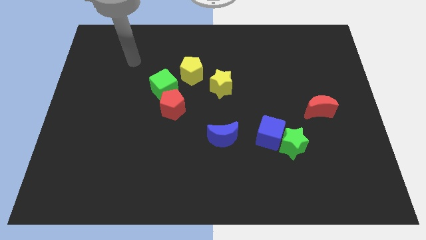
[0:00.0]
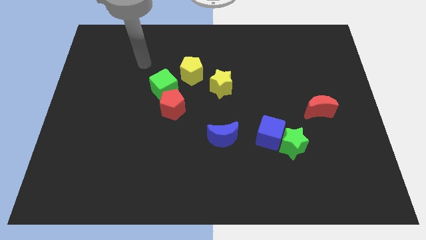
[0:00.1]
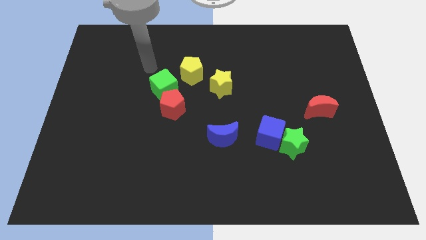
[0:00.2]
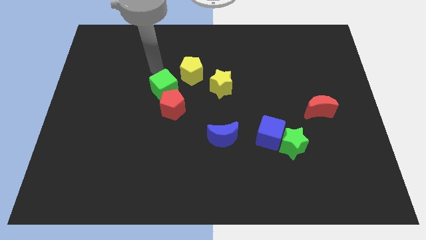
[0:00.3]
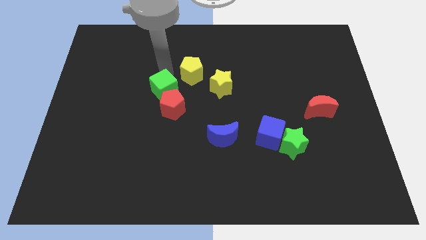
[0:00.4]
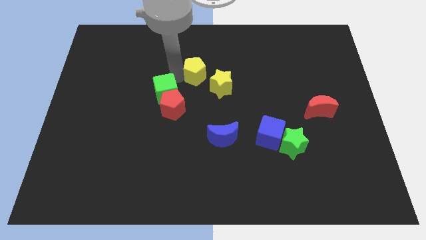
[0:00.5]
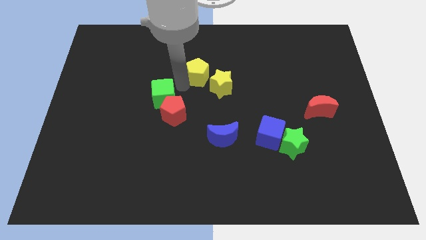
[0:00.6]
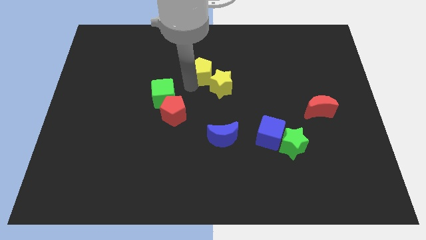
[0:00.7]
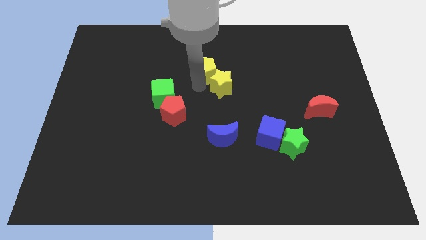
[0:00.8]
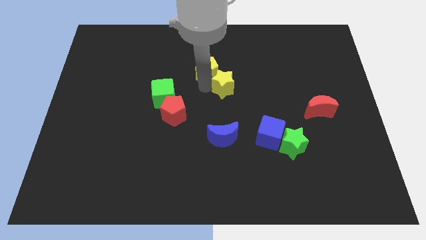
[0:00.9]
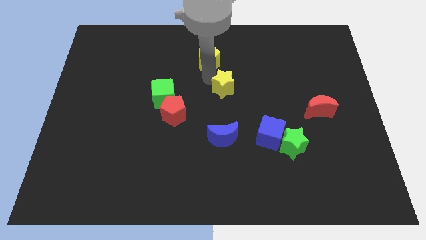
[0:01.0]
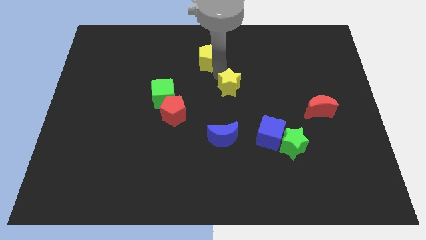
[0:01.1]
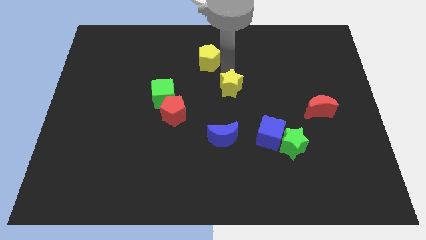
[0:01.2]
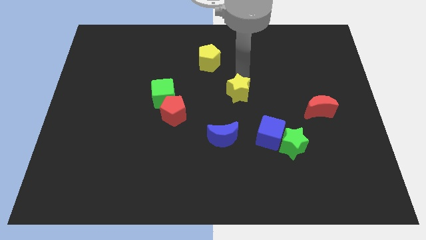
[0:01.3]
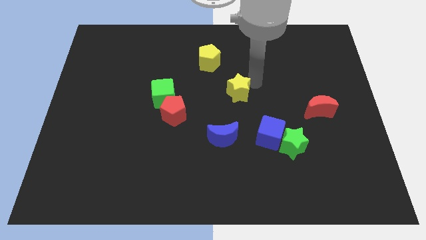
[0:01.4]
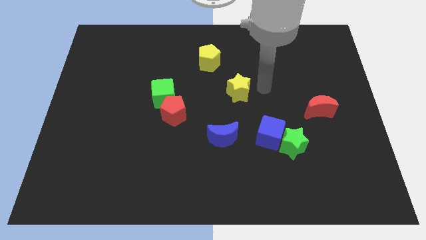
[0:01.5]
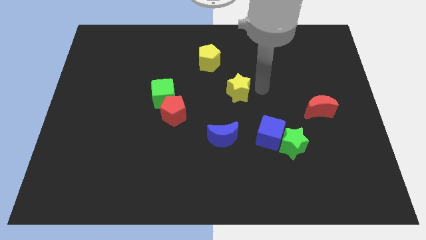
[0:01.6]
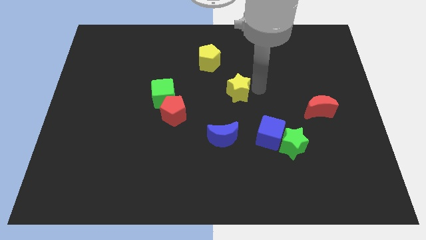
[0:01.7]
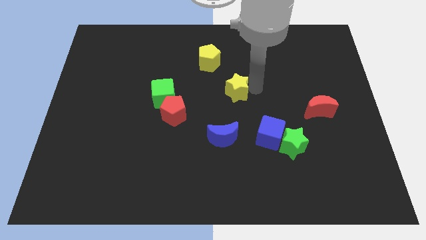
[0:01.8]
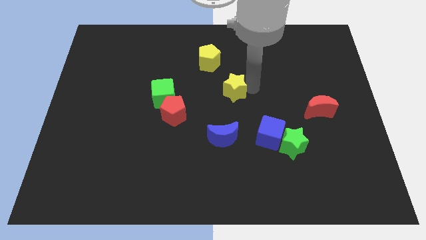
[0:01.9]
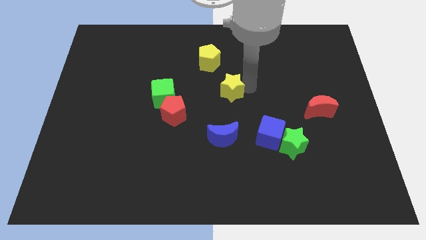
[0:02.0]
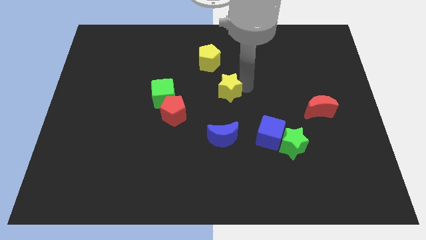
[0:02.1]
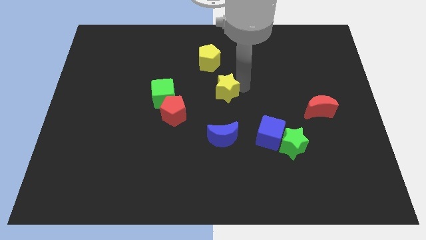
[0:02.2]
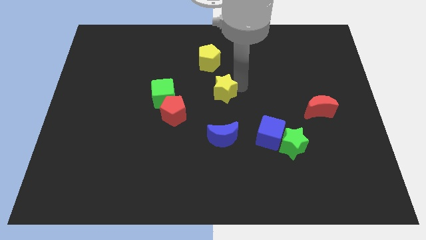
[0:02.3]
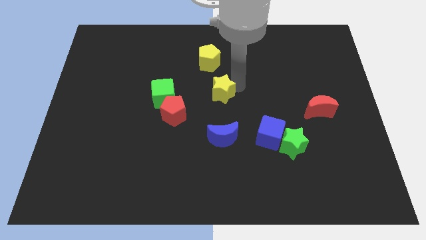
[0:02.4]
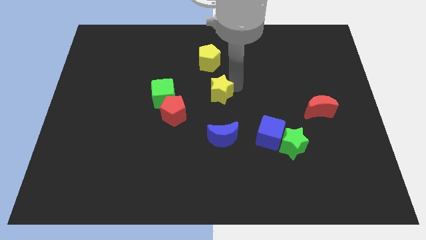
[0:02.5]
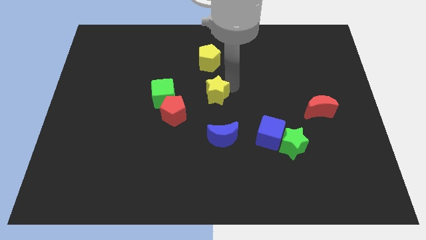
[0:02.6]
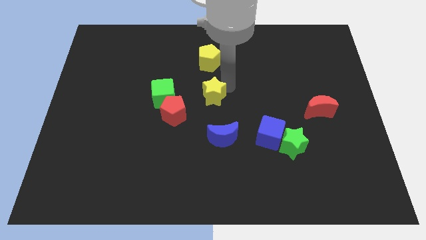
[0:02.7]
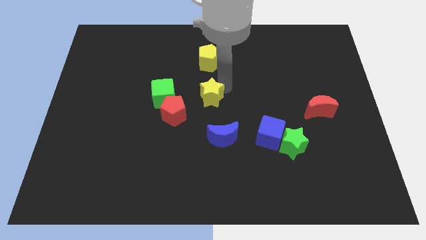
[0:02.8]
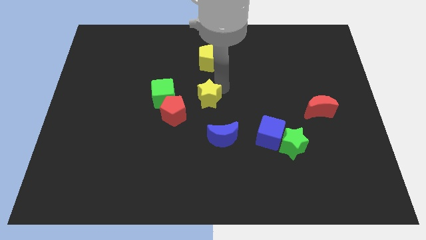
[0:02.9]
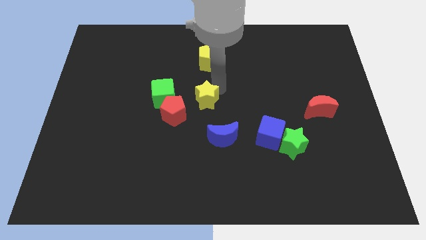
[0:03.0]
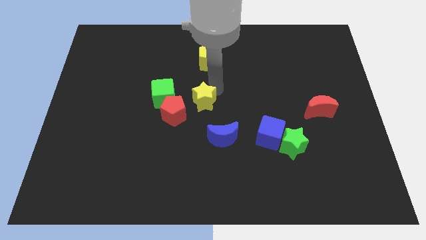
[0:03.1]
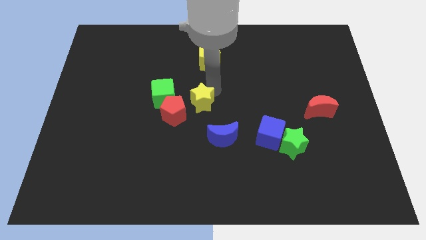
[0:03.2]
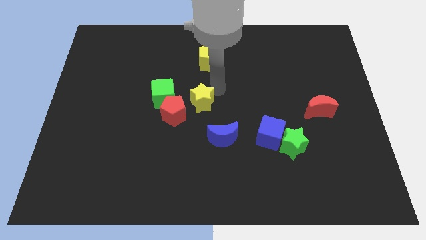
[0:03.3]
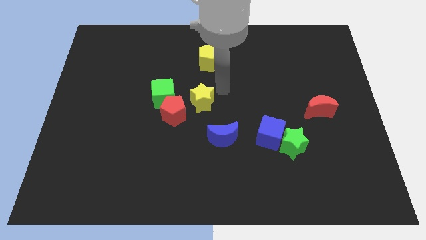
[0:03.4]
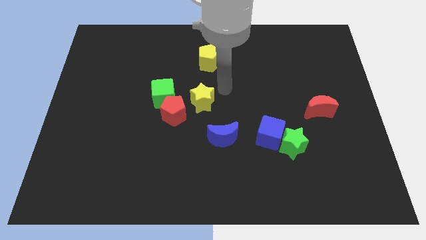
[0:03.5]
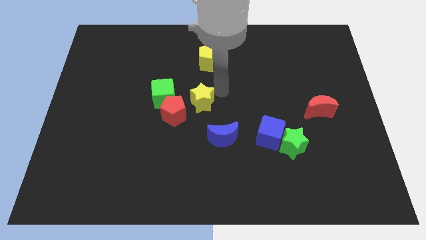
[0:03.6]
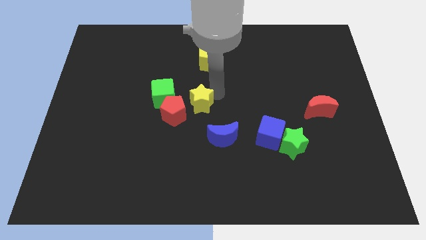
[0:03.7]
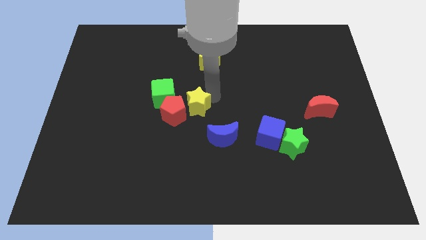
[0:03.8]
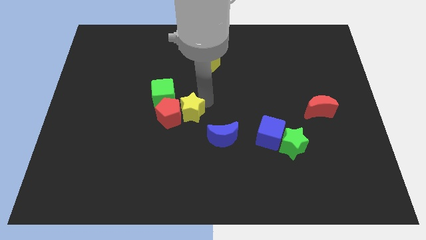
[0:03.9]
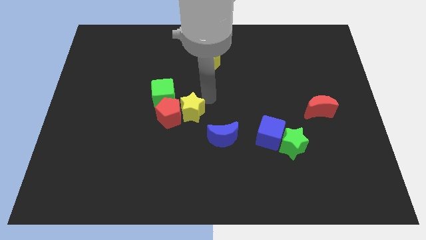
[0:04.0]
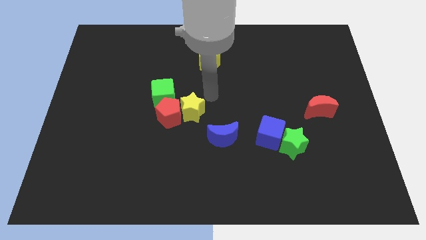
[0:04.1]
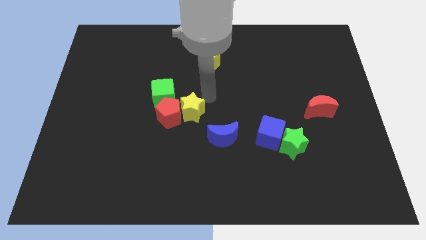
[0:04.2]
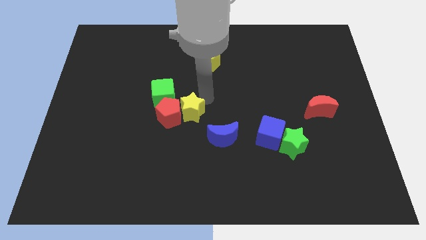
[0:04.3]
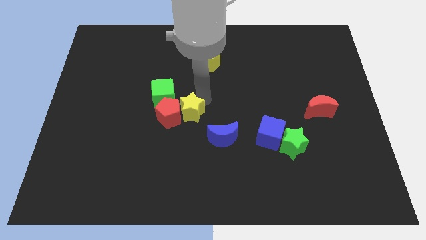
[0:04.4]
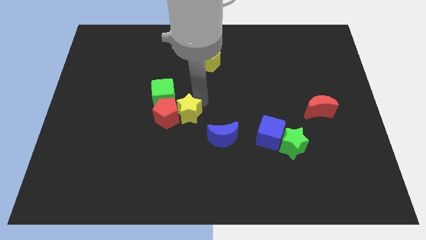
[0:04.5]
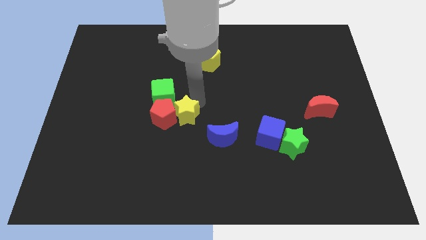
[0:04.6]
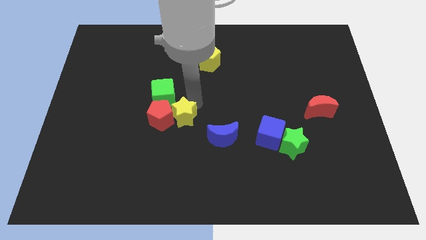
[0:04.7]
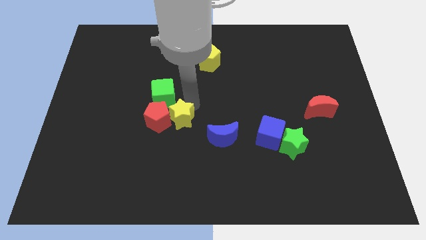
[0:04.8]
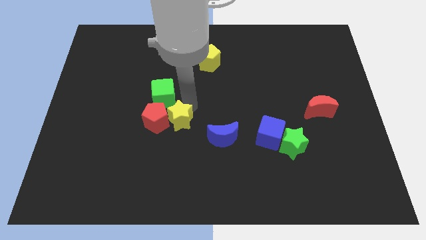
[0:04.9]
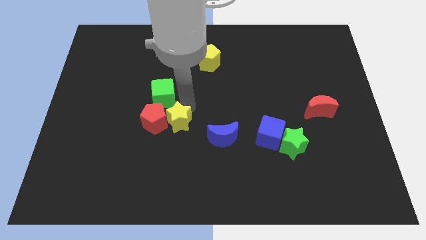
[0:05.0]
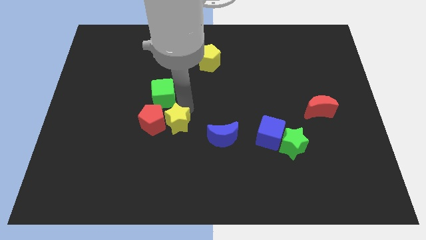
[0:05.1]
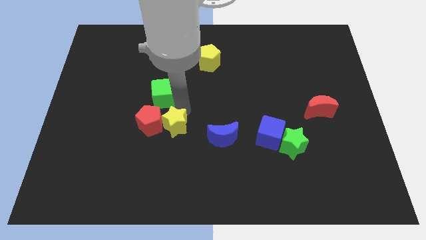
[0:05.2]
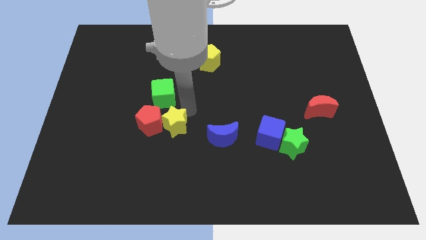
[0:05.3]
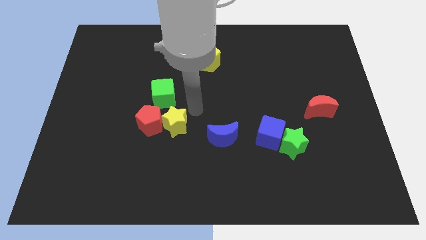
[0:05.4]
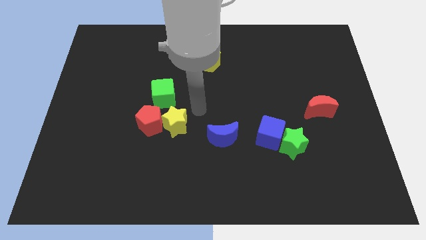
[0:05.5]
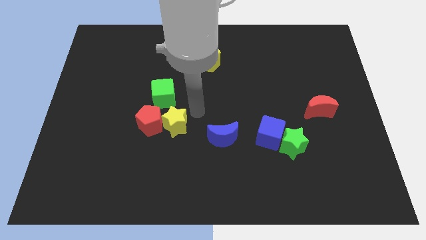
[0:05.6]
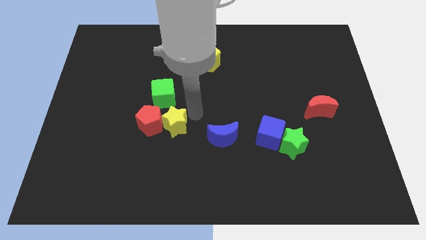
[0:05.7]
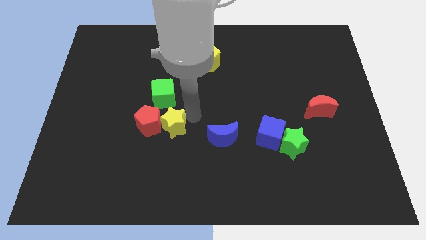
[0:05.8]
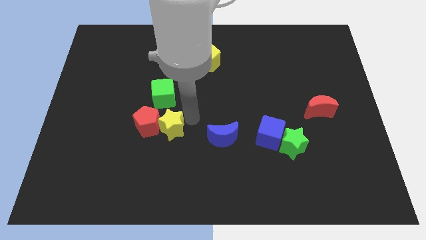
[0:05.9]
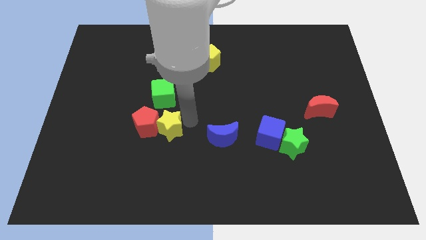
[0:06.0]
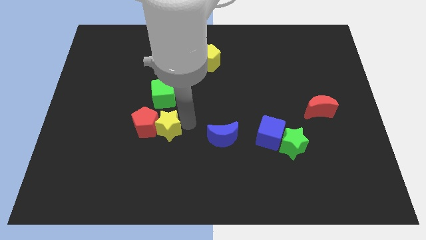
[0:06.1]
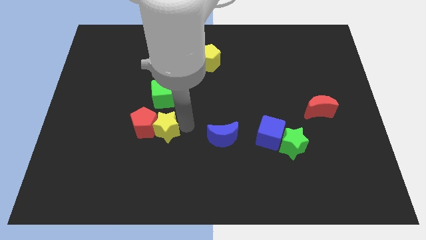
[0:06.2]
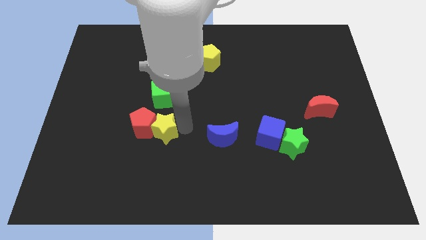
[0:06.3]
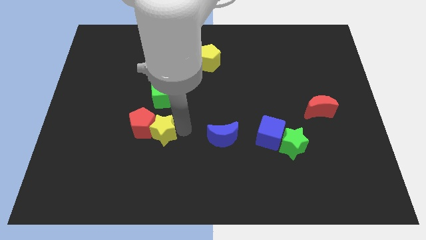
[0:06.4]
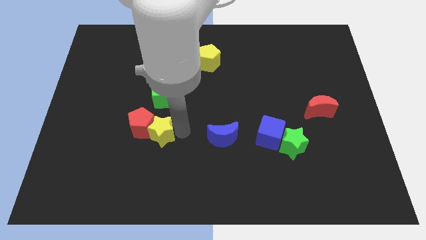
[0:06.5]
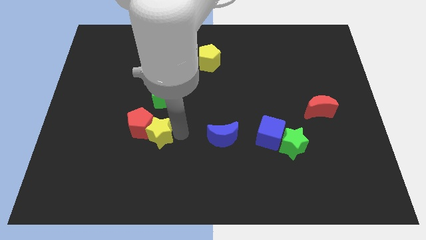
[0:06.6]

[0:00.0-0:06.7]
push the yellow star diagonally down and to the left

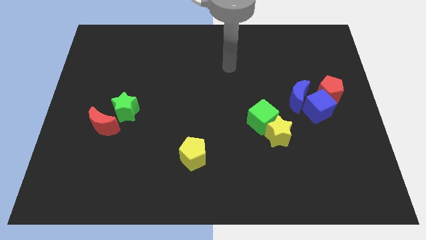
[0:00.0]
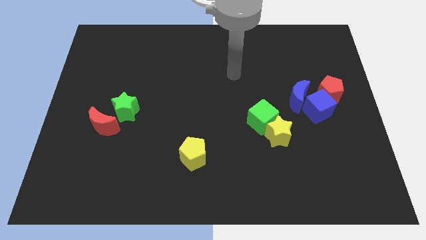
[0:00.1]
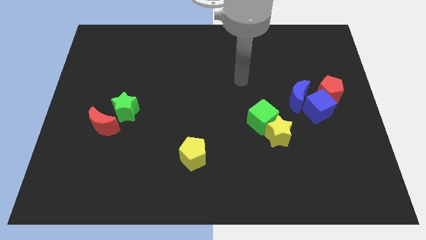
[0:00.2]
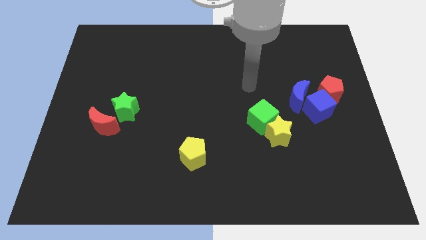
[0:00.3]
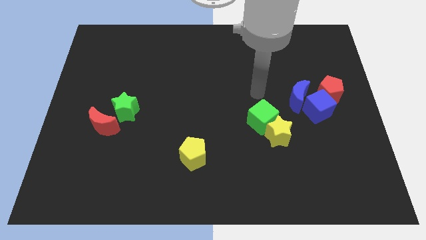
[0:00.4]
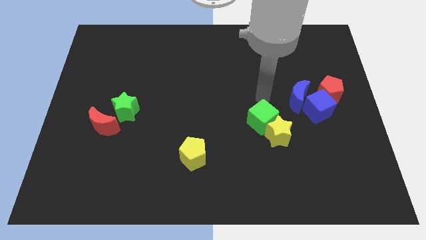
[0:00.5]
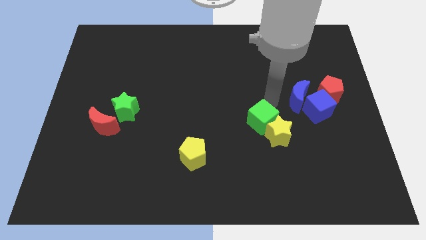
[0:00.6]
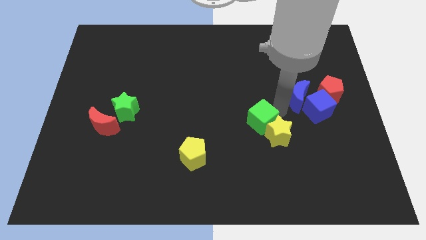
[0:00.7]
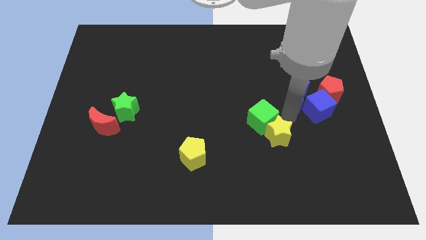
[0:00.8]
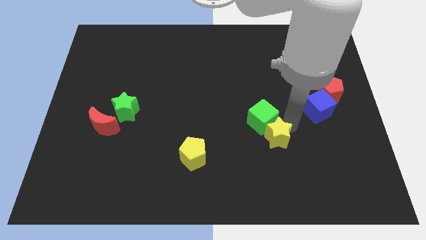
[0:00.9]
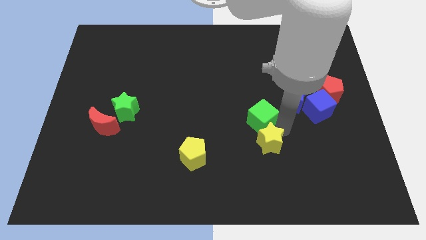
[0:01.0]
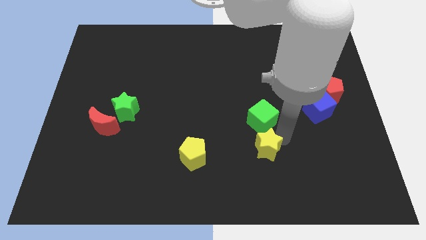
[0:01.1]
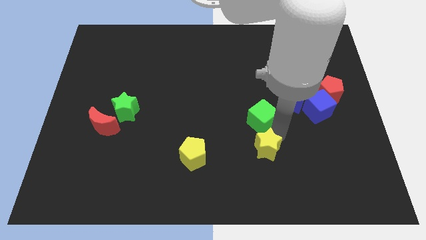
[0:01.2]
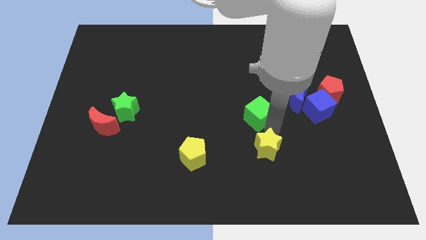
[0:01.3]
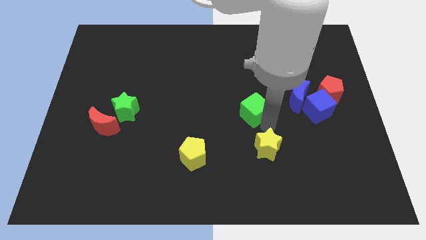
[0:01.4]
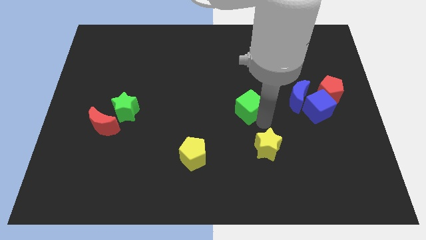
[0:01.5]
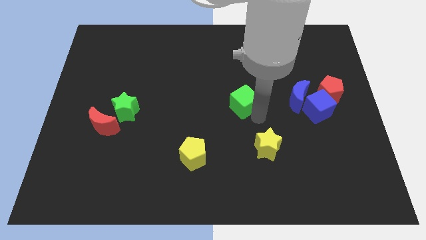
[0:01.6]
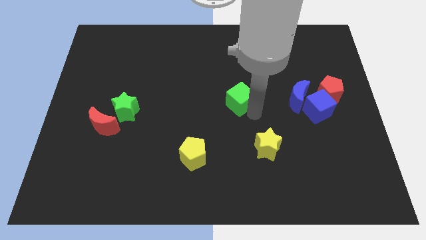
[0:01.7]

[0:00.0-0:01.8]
move the green cube up and then to the left a bit
